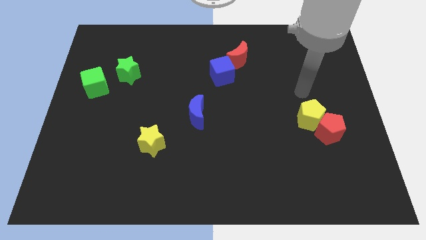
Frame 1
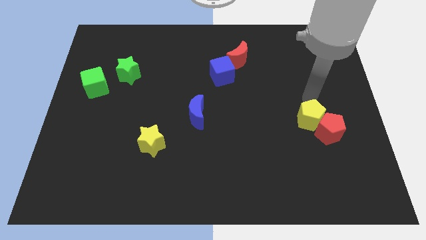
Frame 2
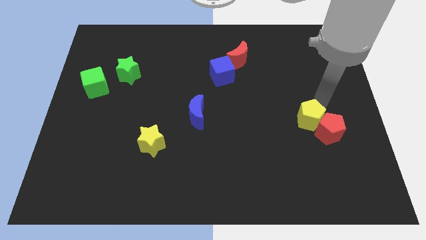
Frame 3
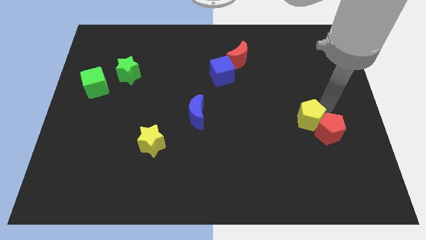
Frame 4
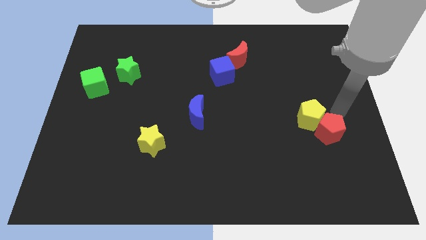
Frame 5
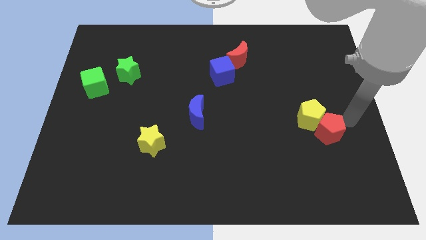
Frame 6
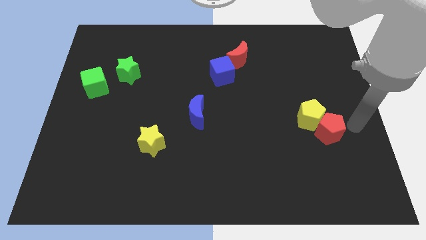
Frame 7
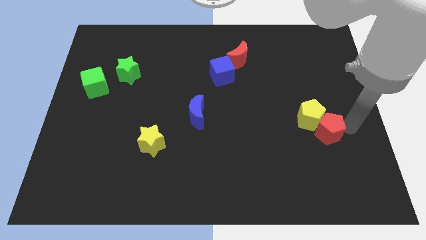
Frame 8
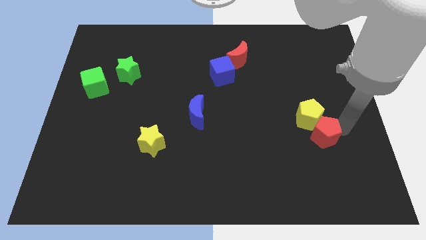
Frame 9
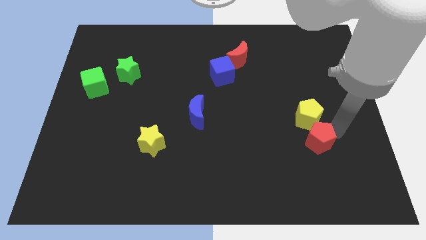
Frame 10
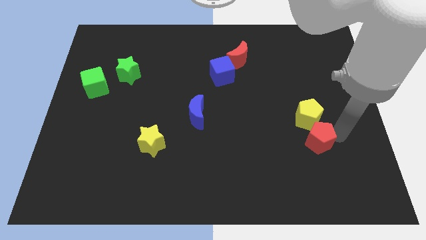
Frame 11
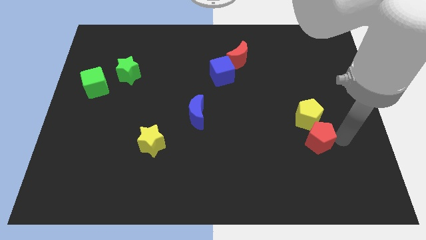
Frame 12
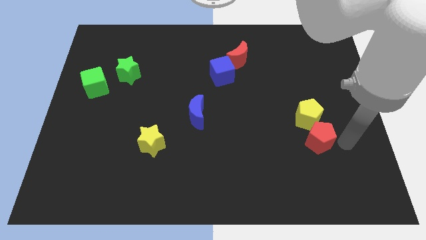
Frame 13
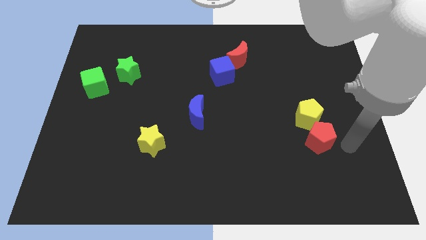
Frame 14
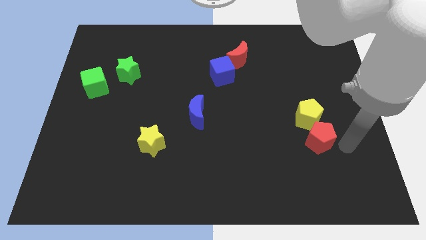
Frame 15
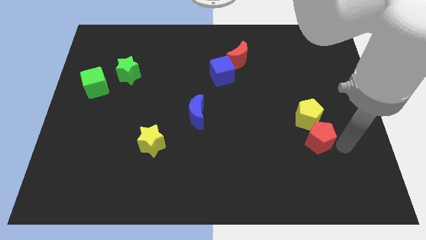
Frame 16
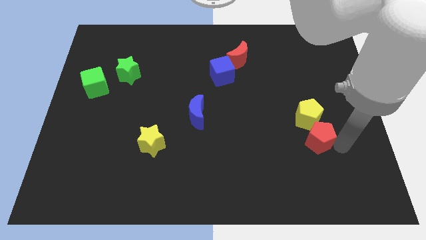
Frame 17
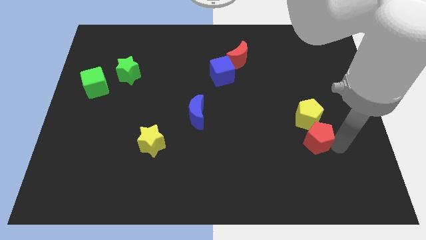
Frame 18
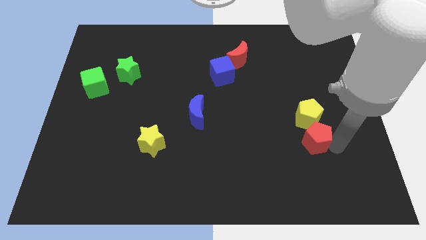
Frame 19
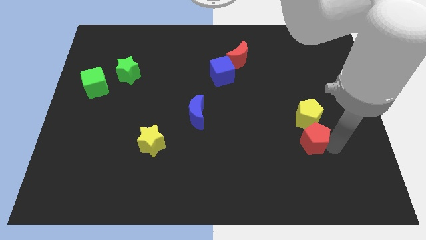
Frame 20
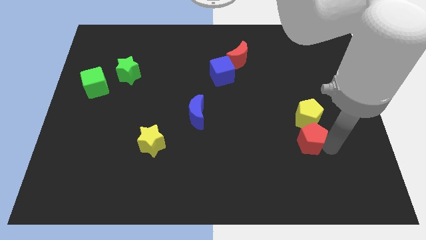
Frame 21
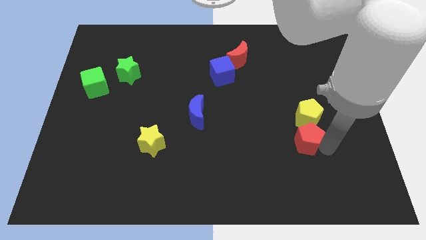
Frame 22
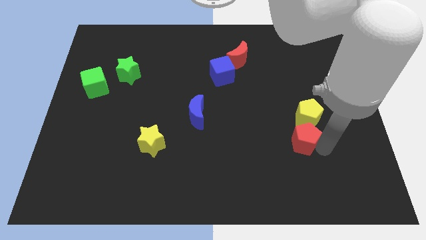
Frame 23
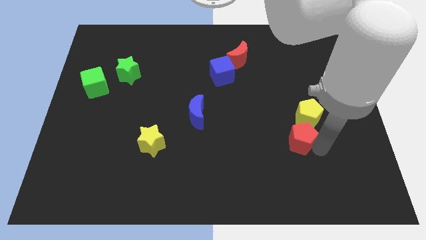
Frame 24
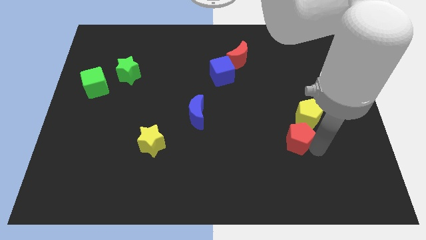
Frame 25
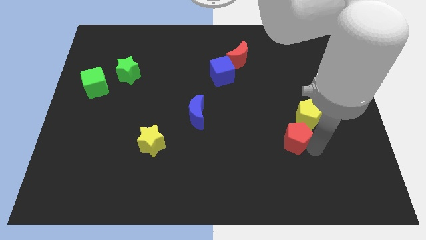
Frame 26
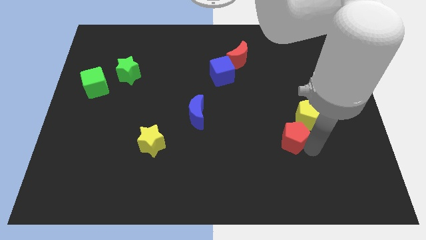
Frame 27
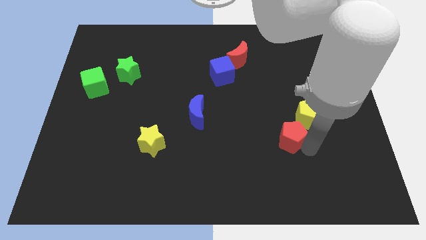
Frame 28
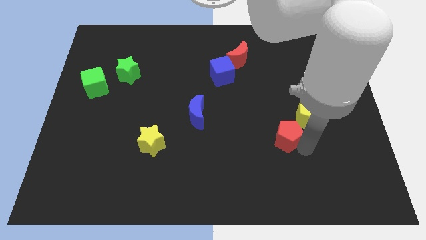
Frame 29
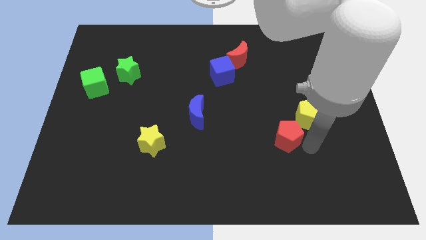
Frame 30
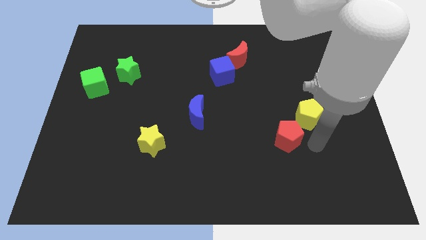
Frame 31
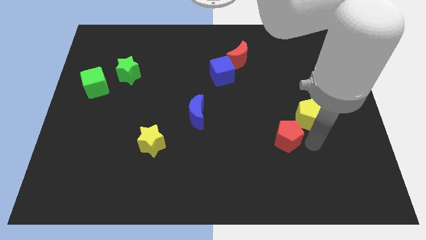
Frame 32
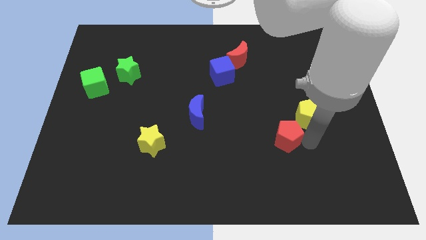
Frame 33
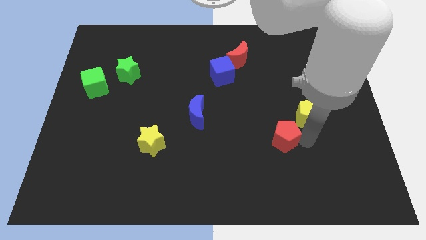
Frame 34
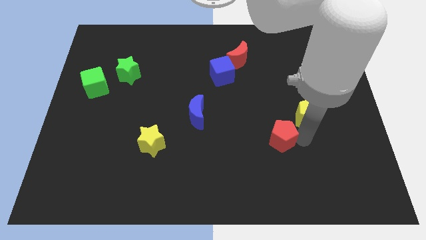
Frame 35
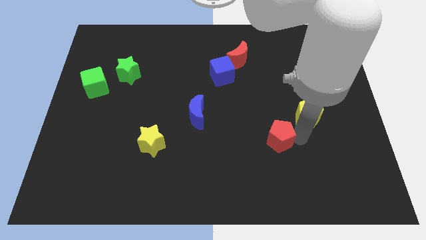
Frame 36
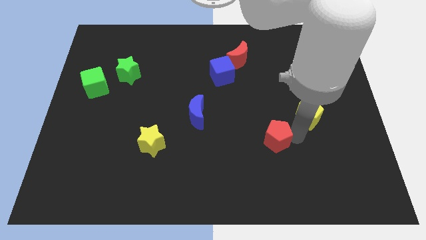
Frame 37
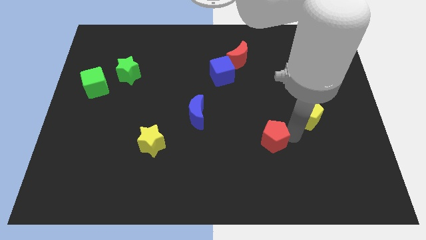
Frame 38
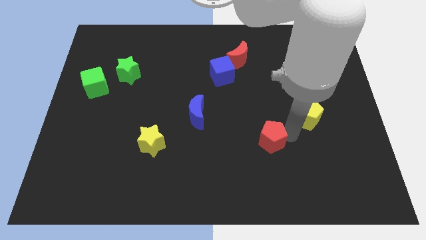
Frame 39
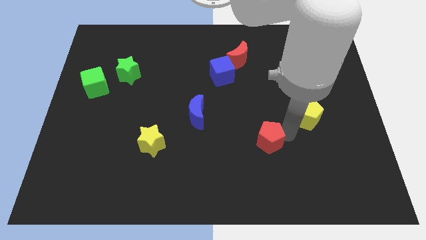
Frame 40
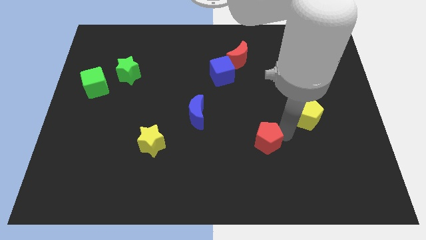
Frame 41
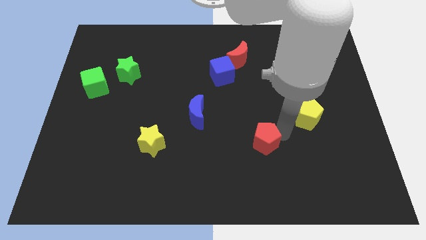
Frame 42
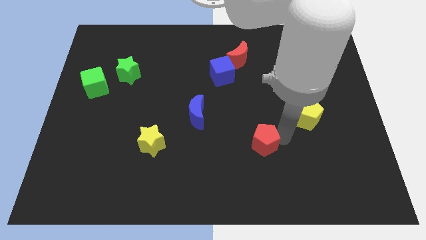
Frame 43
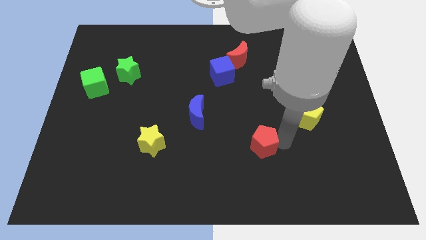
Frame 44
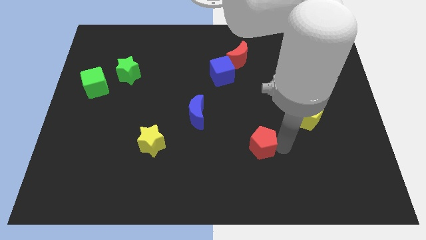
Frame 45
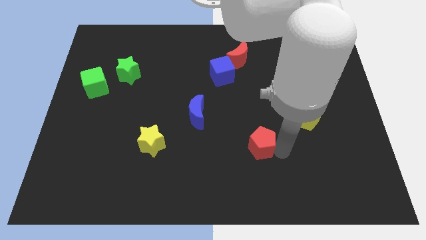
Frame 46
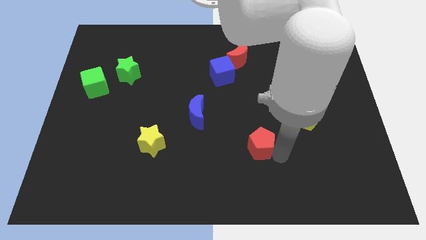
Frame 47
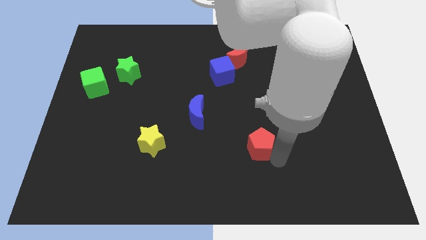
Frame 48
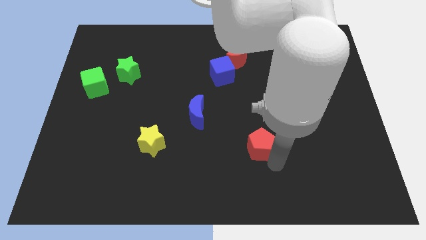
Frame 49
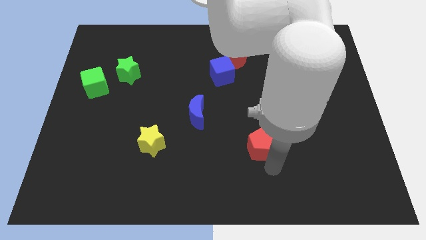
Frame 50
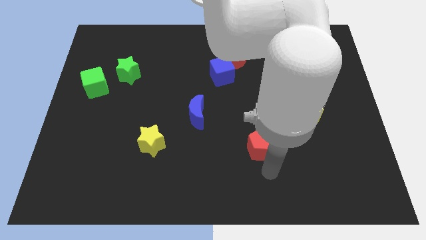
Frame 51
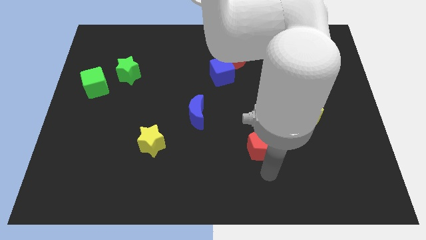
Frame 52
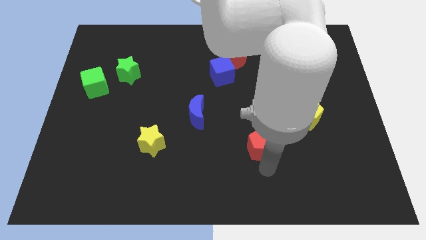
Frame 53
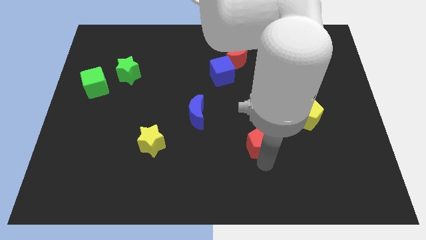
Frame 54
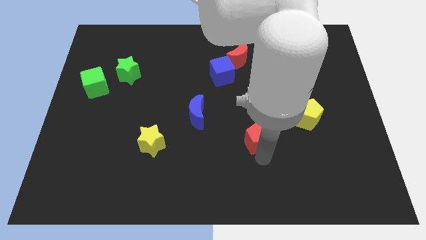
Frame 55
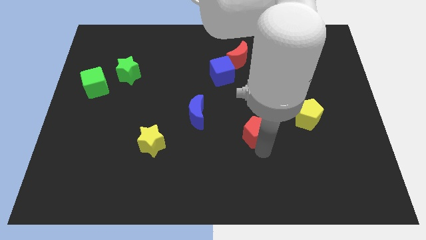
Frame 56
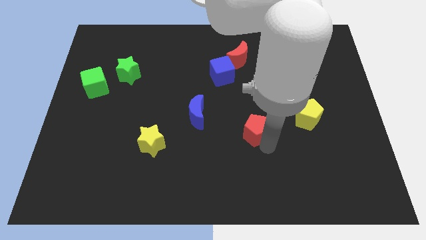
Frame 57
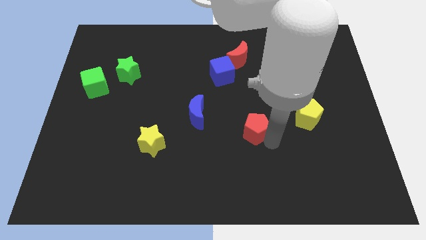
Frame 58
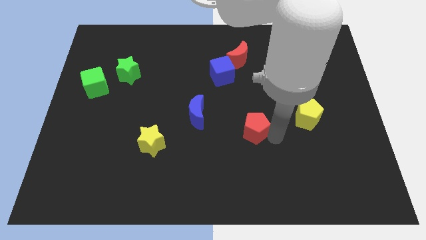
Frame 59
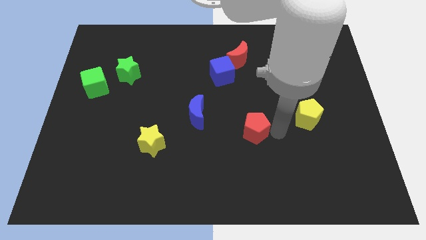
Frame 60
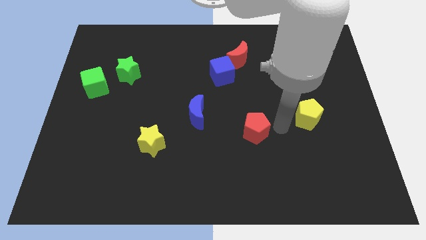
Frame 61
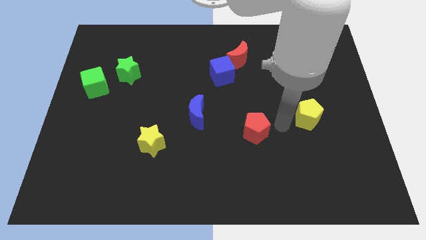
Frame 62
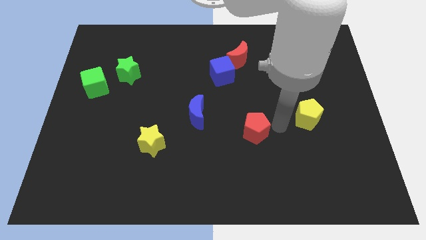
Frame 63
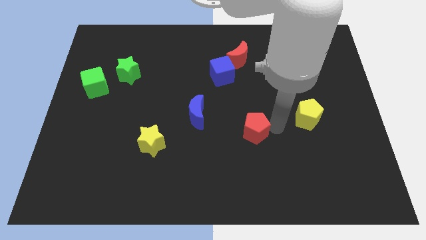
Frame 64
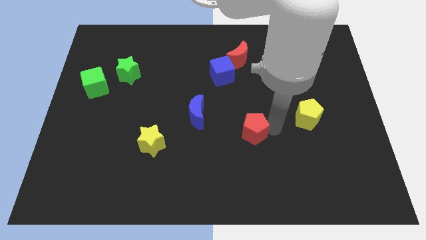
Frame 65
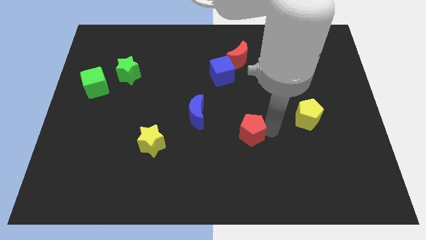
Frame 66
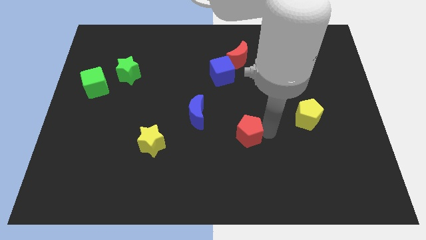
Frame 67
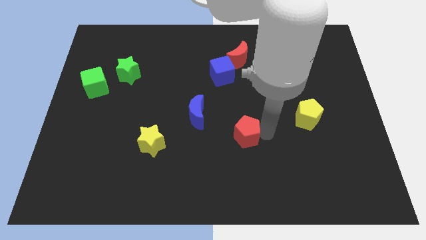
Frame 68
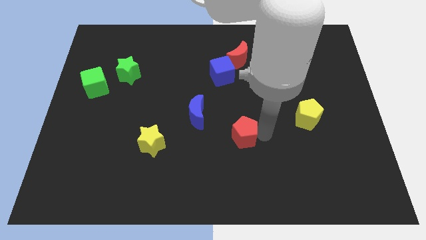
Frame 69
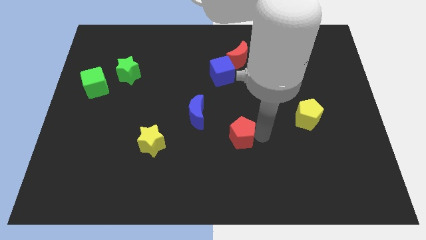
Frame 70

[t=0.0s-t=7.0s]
slide the red pentagon to the left

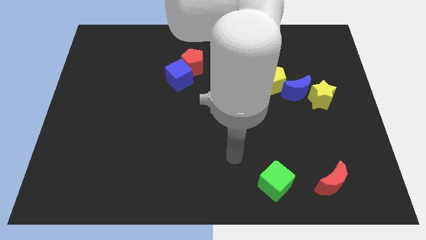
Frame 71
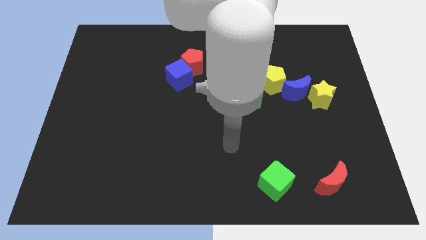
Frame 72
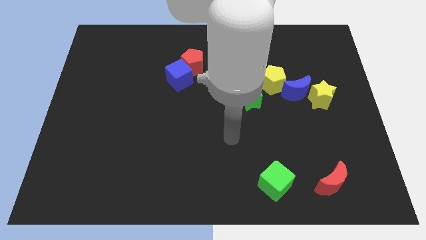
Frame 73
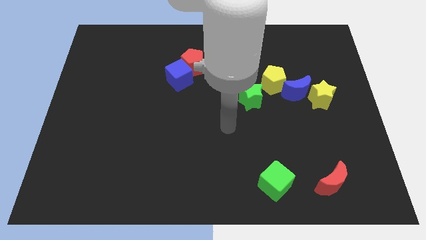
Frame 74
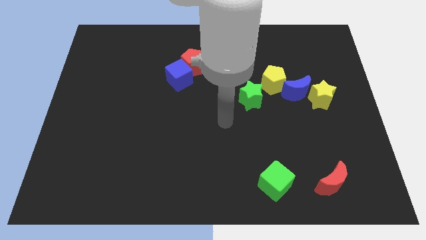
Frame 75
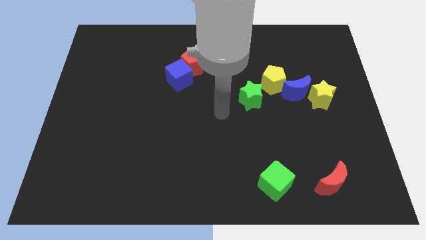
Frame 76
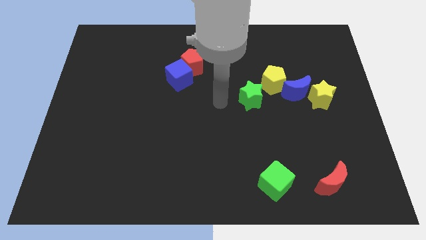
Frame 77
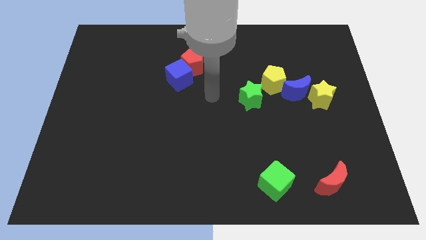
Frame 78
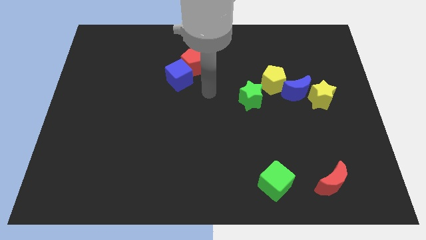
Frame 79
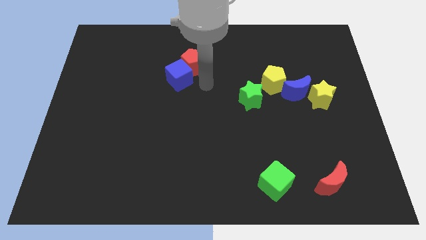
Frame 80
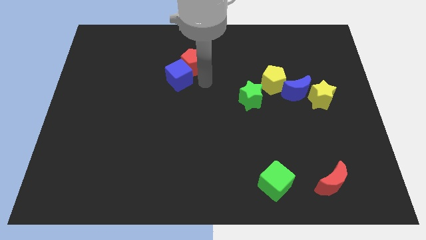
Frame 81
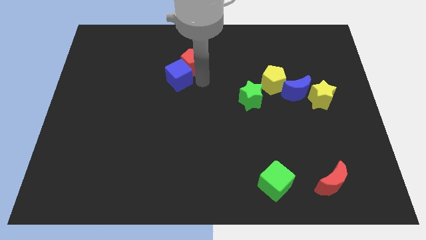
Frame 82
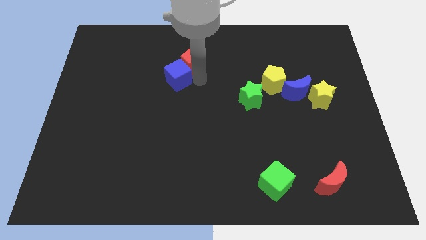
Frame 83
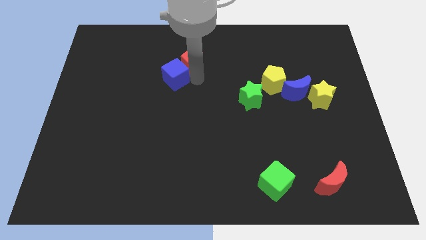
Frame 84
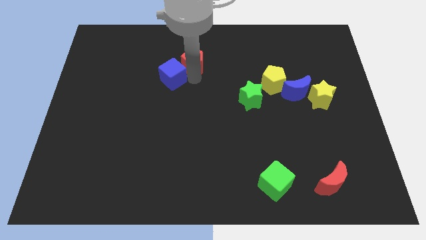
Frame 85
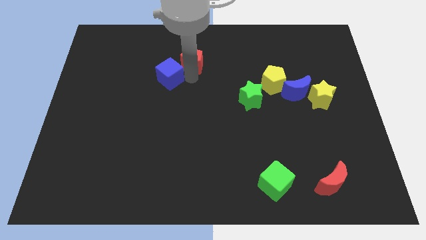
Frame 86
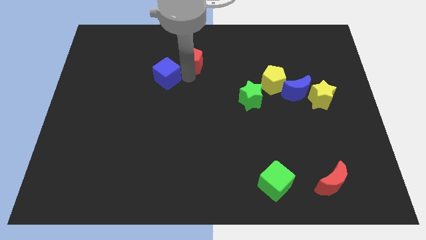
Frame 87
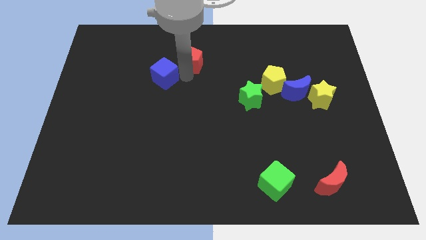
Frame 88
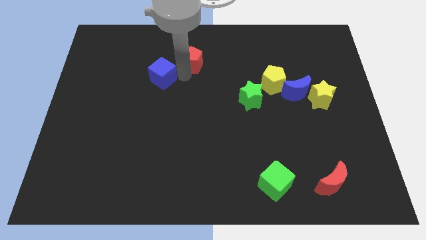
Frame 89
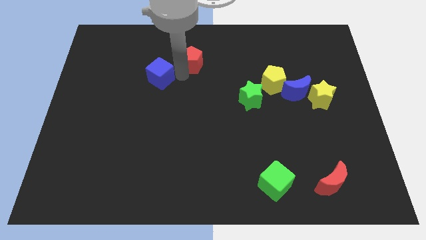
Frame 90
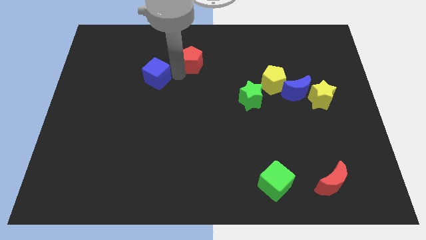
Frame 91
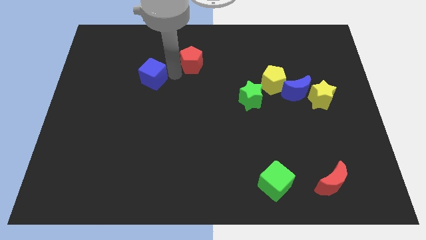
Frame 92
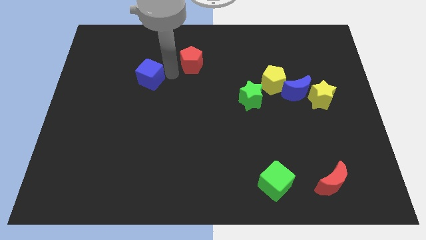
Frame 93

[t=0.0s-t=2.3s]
slightly move the blue cube to the left
